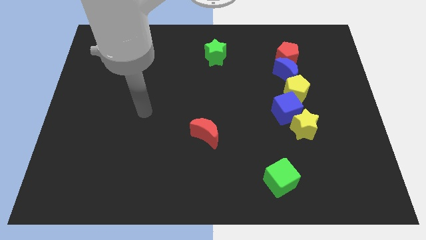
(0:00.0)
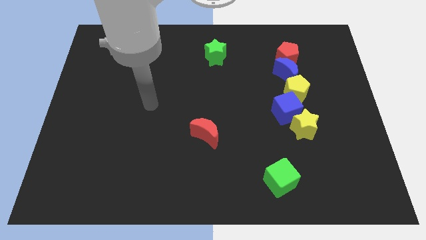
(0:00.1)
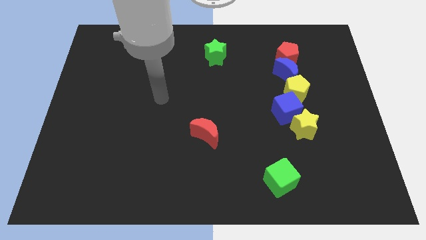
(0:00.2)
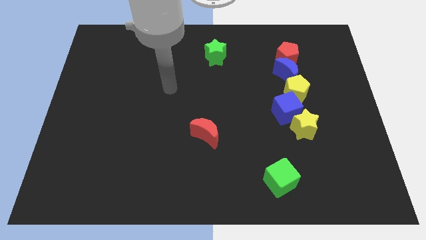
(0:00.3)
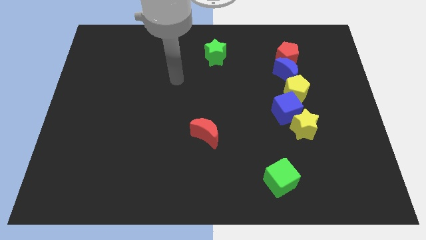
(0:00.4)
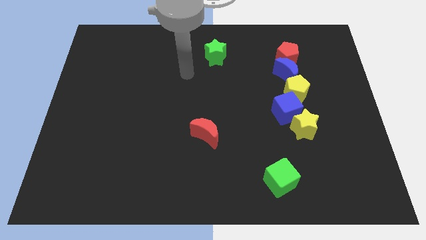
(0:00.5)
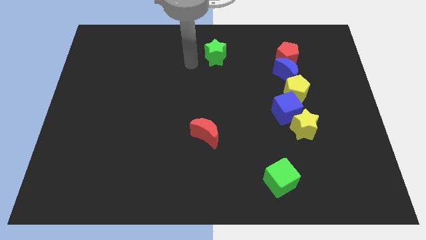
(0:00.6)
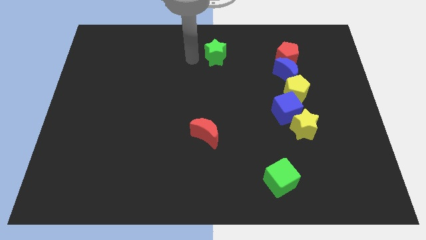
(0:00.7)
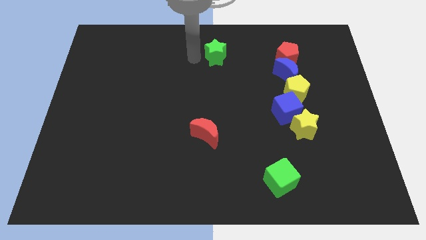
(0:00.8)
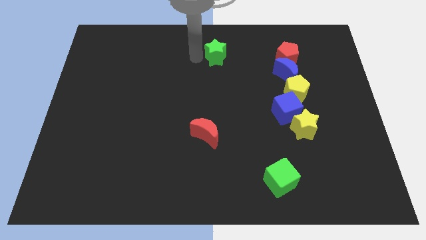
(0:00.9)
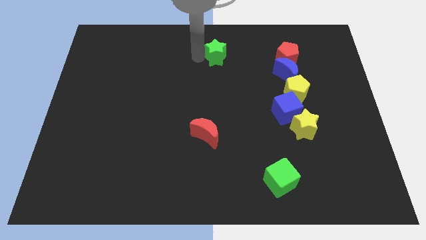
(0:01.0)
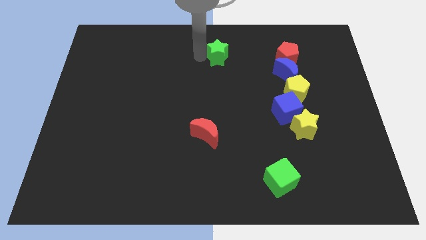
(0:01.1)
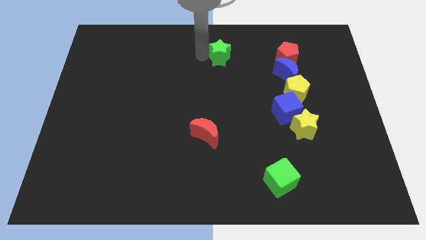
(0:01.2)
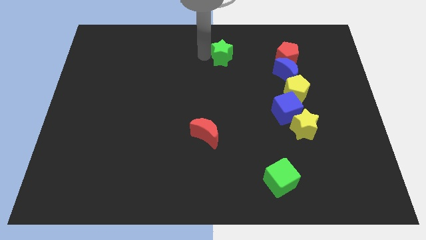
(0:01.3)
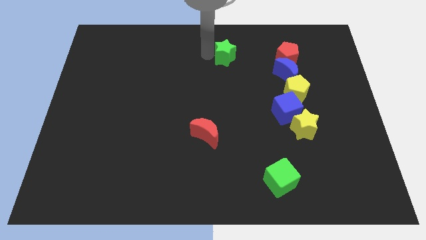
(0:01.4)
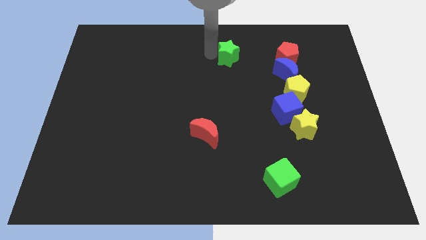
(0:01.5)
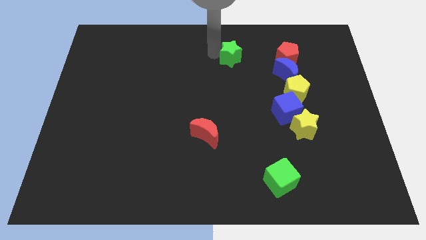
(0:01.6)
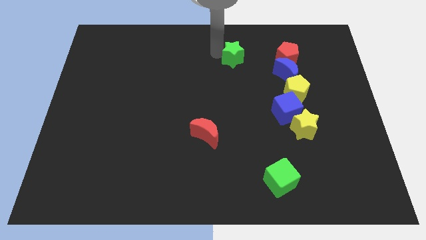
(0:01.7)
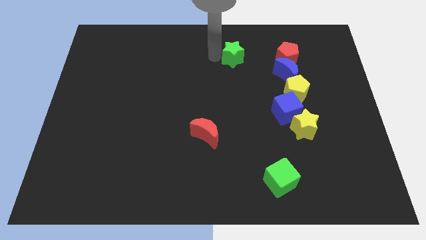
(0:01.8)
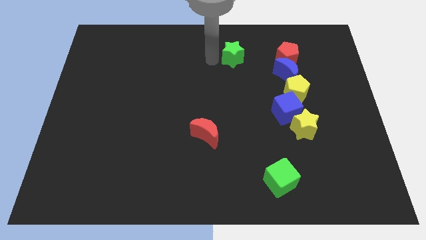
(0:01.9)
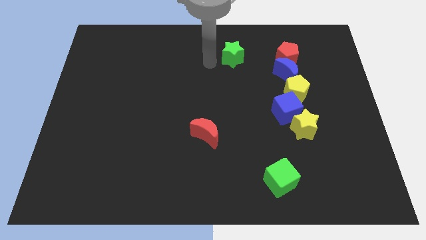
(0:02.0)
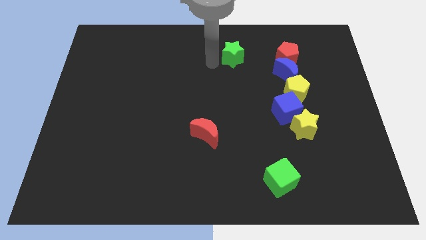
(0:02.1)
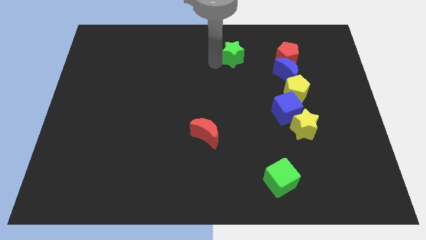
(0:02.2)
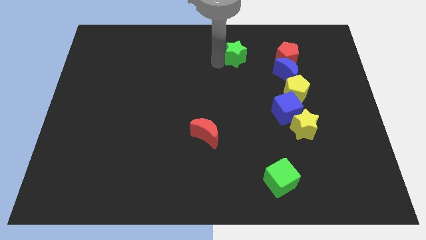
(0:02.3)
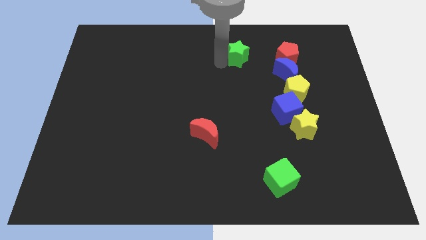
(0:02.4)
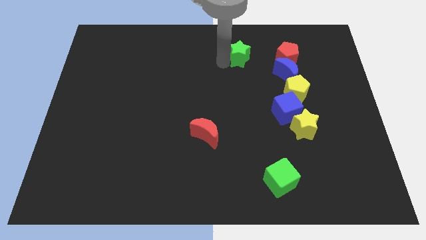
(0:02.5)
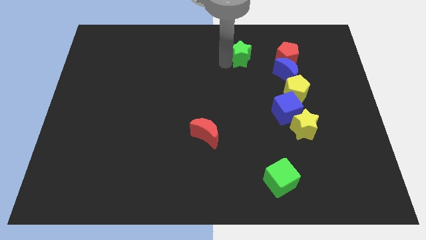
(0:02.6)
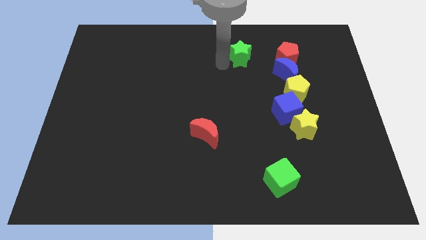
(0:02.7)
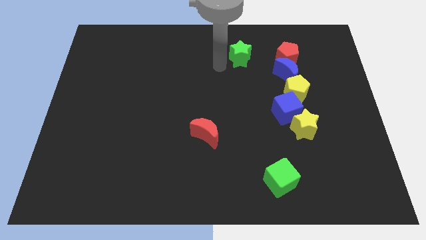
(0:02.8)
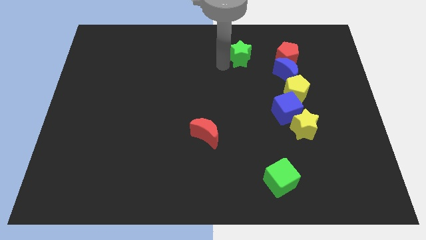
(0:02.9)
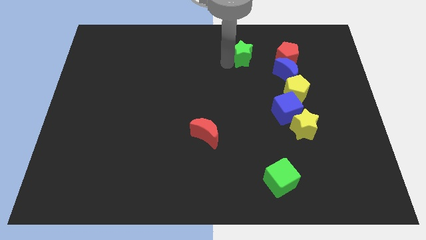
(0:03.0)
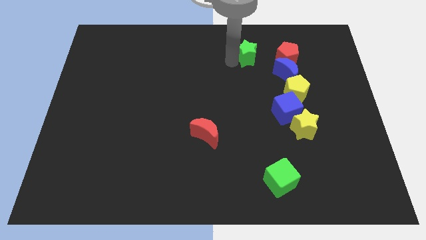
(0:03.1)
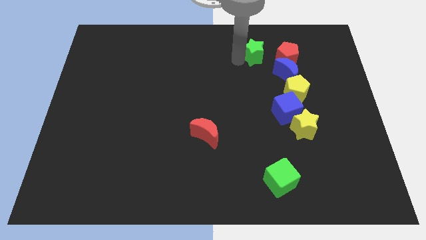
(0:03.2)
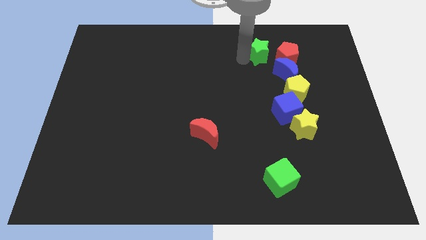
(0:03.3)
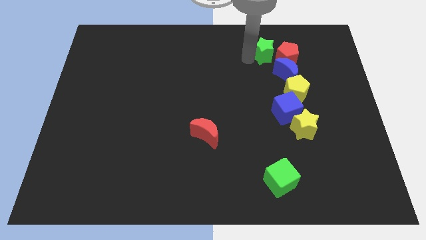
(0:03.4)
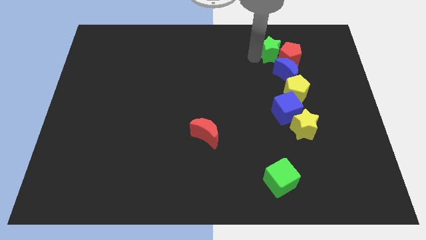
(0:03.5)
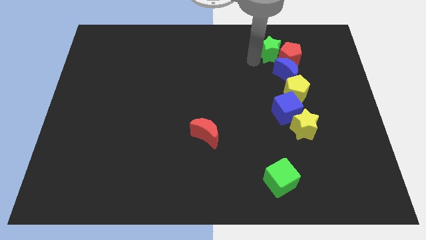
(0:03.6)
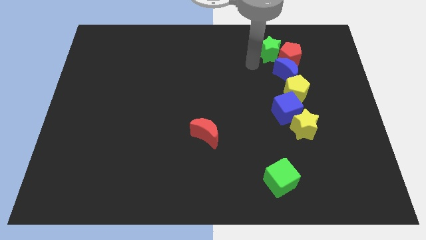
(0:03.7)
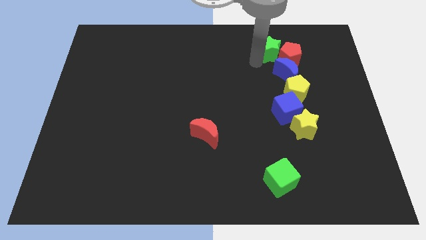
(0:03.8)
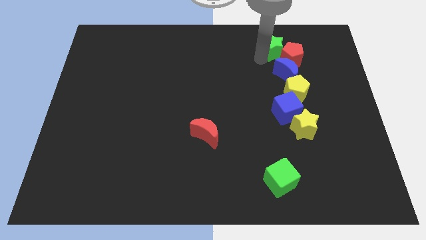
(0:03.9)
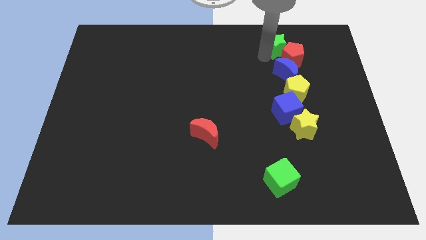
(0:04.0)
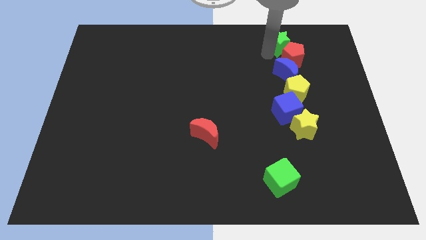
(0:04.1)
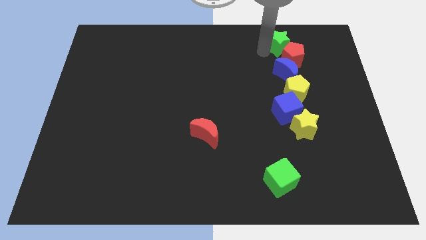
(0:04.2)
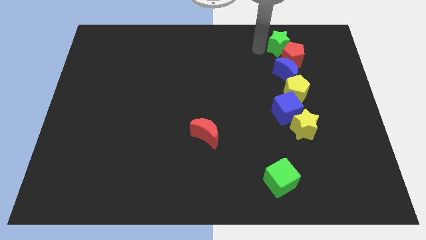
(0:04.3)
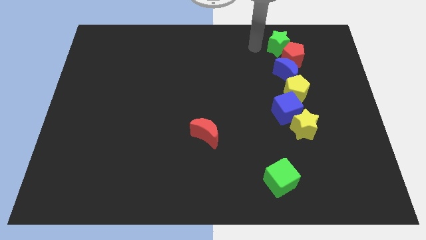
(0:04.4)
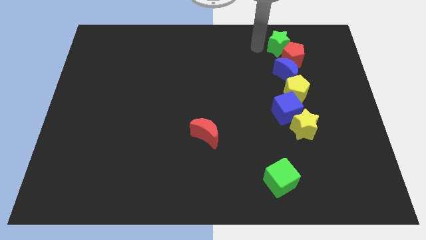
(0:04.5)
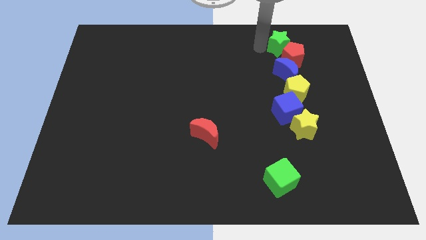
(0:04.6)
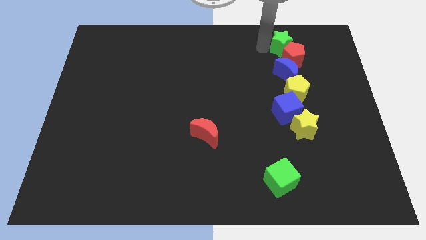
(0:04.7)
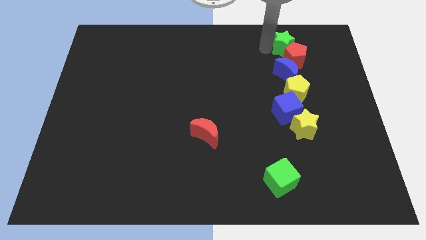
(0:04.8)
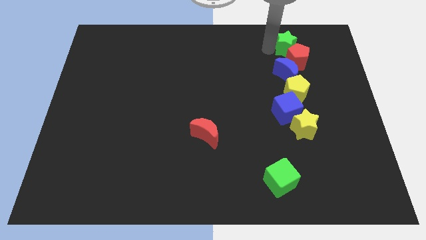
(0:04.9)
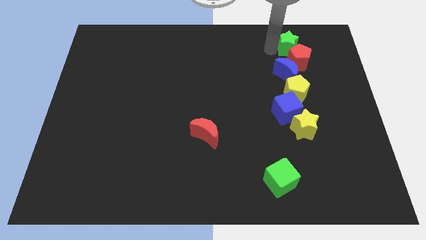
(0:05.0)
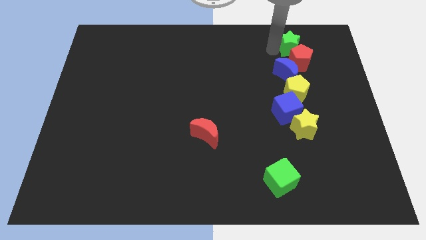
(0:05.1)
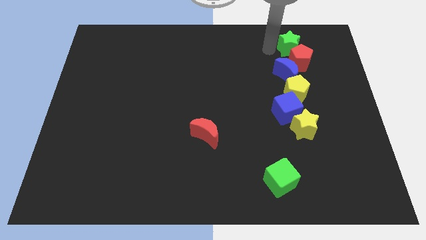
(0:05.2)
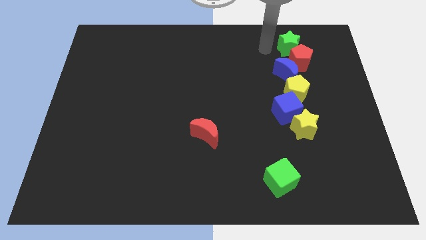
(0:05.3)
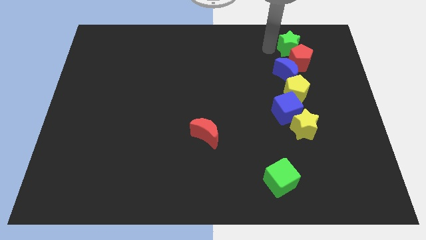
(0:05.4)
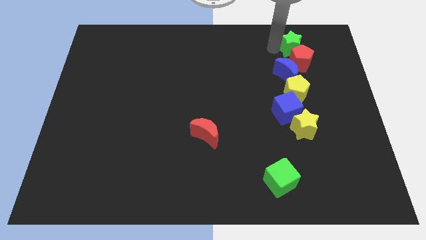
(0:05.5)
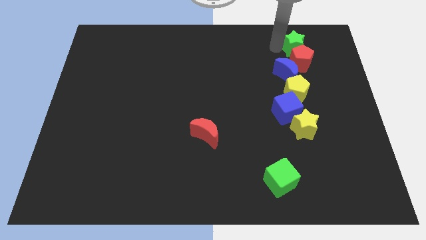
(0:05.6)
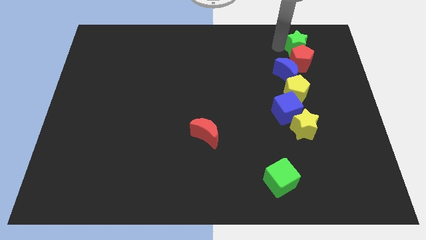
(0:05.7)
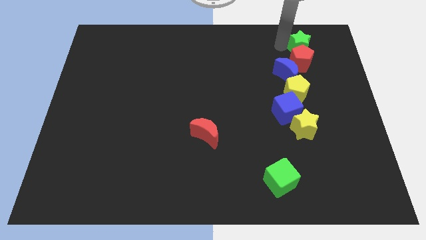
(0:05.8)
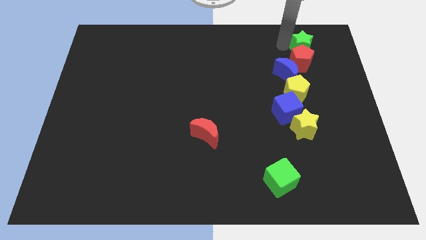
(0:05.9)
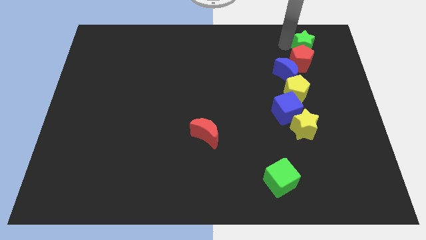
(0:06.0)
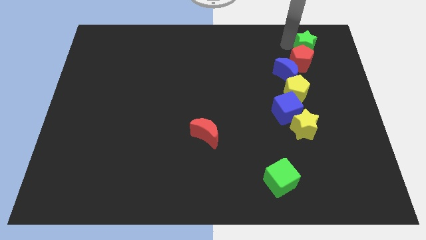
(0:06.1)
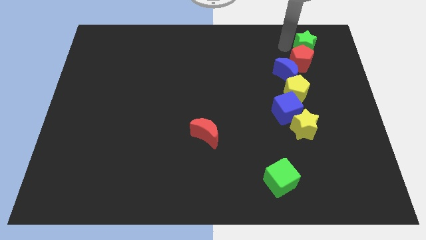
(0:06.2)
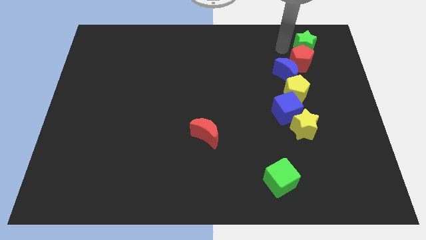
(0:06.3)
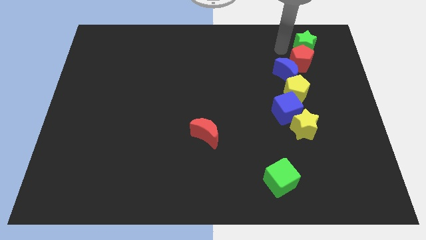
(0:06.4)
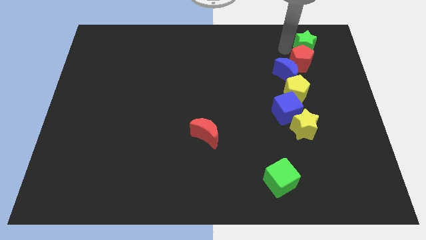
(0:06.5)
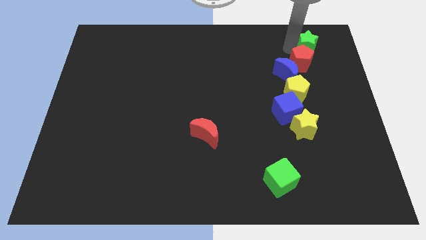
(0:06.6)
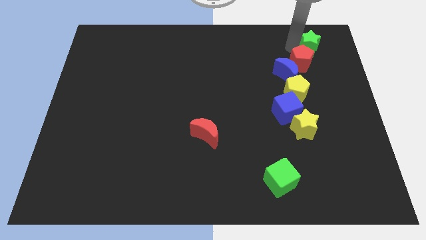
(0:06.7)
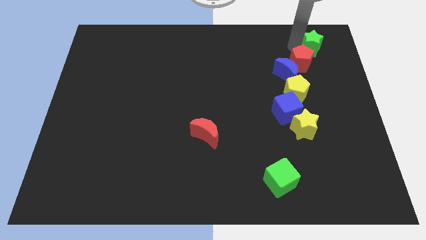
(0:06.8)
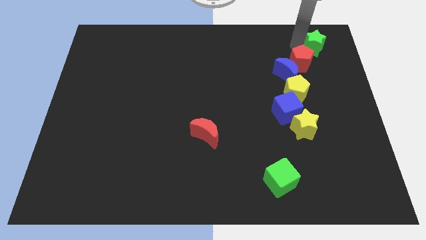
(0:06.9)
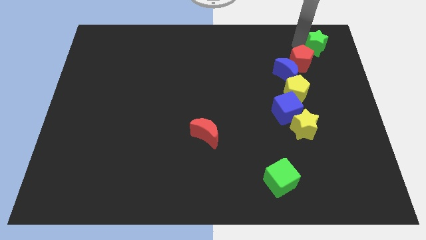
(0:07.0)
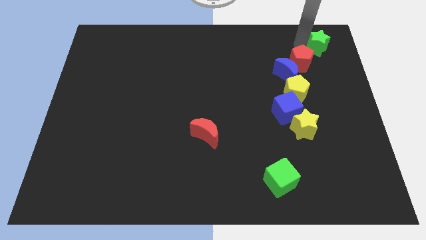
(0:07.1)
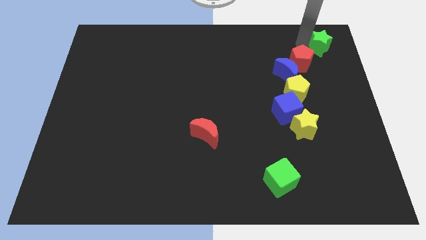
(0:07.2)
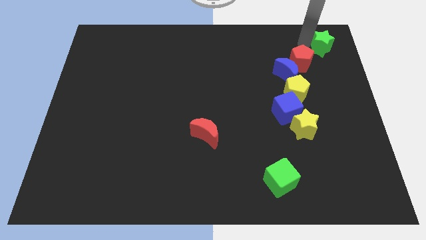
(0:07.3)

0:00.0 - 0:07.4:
put the green star to the upper right corner
